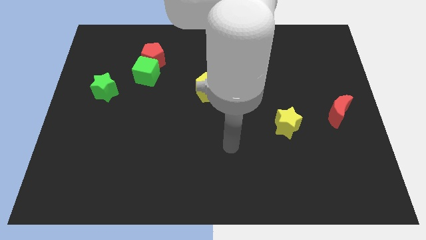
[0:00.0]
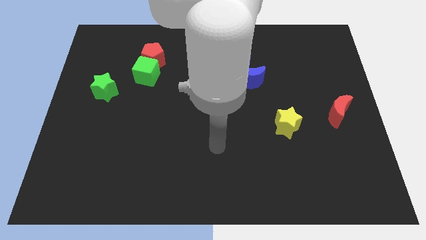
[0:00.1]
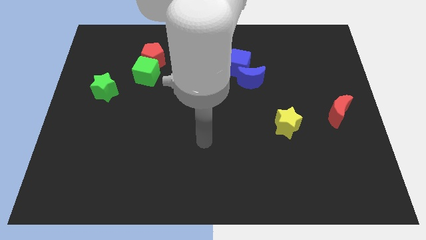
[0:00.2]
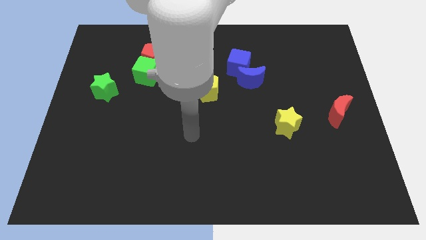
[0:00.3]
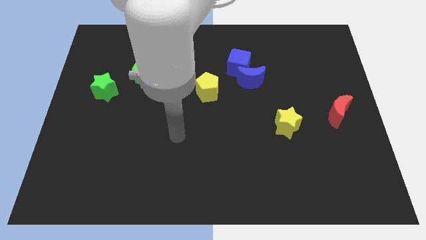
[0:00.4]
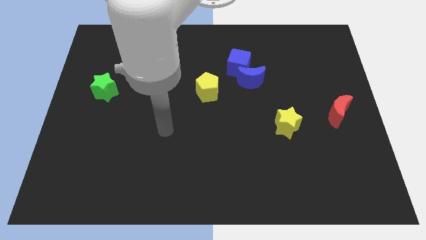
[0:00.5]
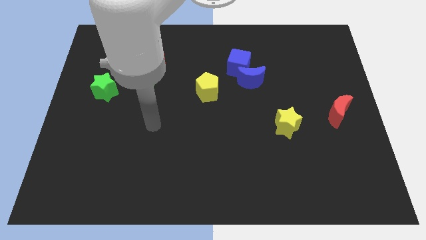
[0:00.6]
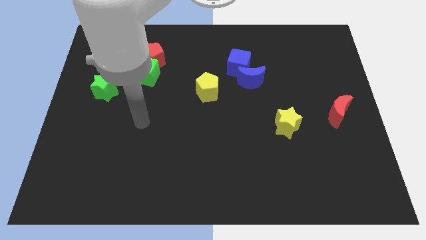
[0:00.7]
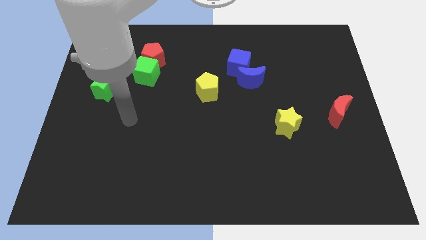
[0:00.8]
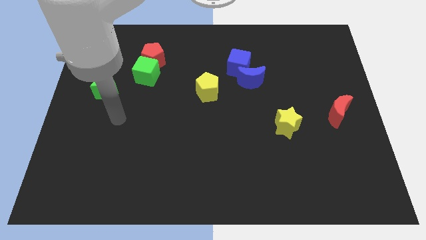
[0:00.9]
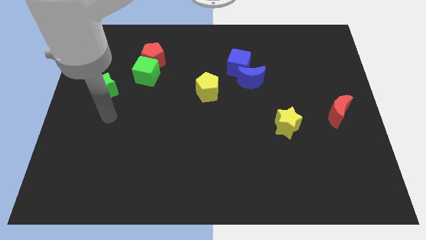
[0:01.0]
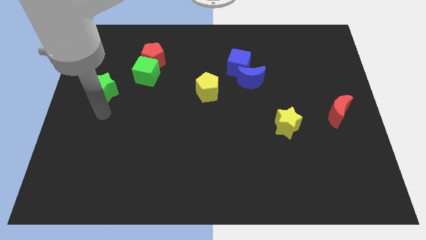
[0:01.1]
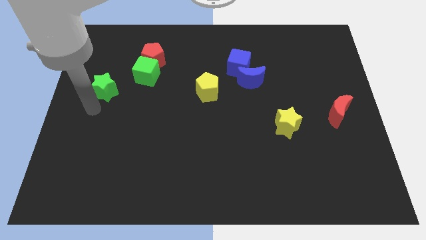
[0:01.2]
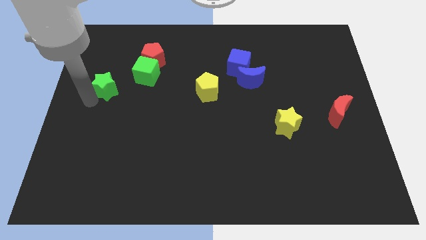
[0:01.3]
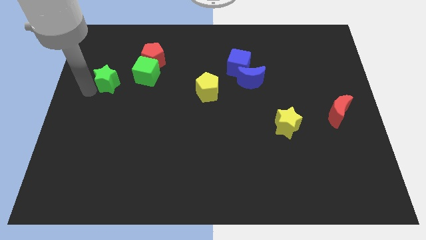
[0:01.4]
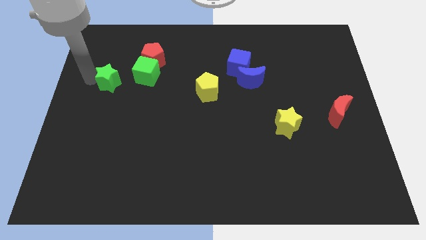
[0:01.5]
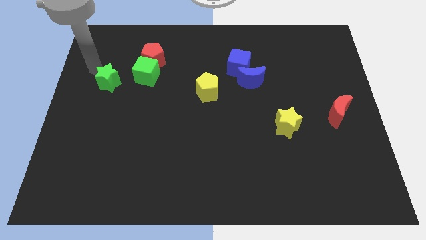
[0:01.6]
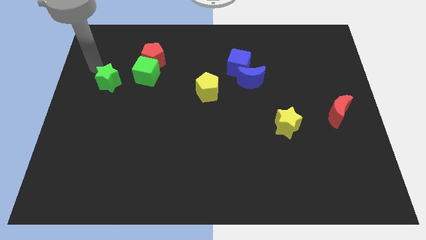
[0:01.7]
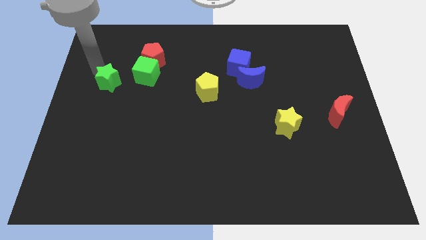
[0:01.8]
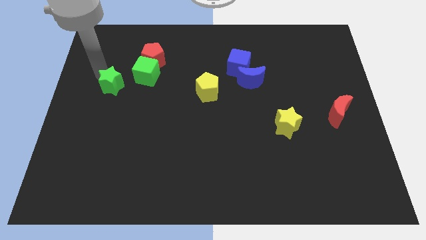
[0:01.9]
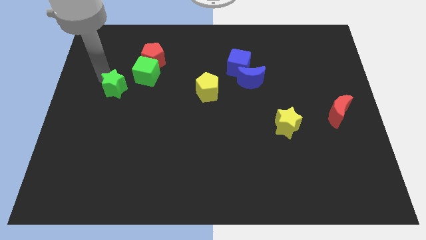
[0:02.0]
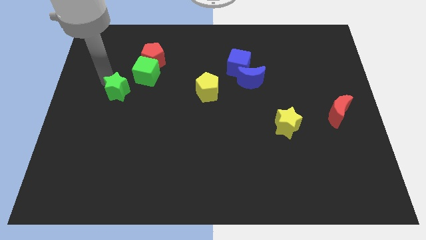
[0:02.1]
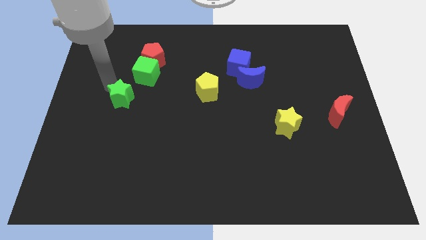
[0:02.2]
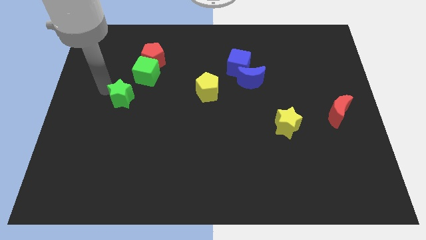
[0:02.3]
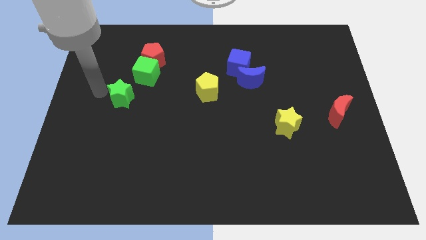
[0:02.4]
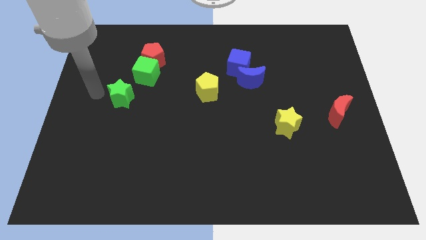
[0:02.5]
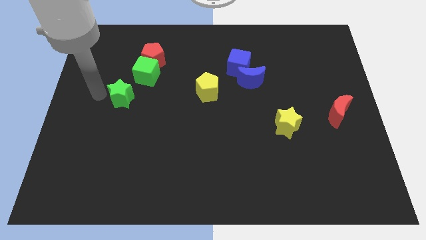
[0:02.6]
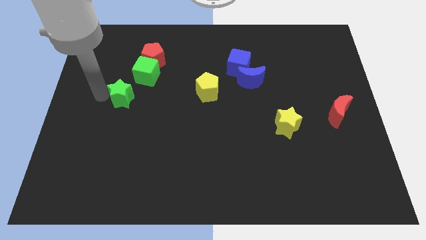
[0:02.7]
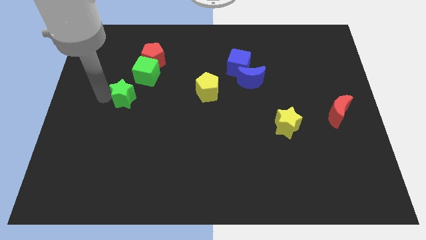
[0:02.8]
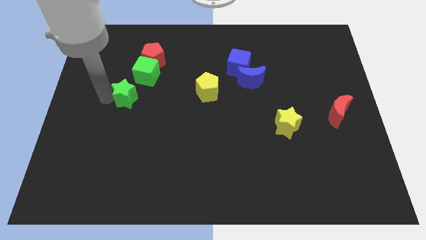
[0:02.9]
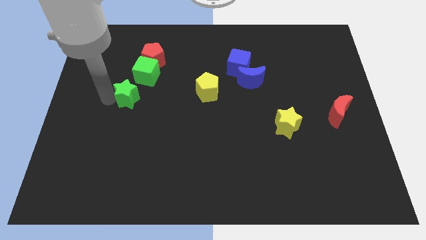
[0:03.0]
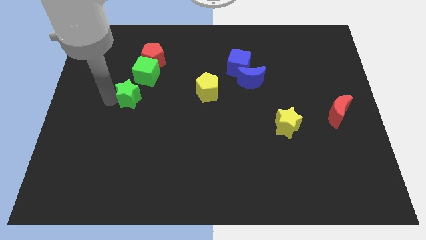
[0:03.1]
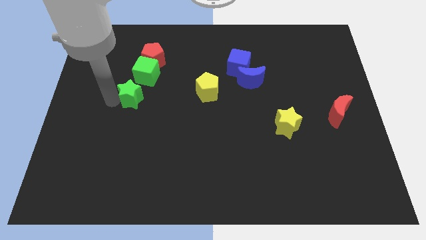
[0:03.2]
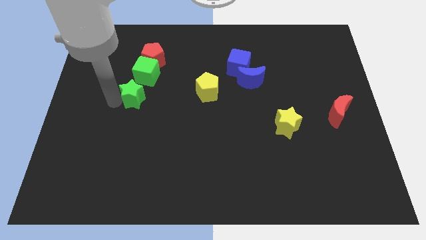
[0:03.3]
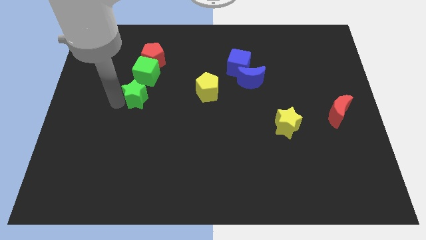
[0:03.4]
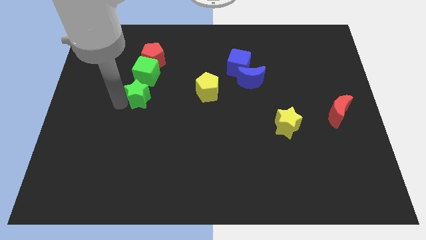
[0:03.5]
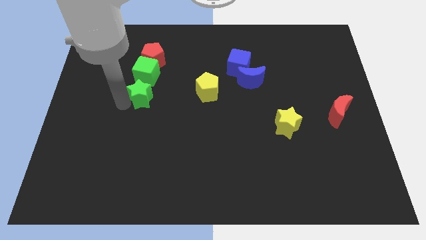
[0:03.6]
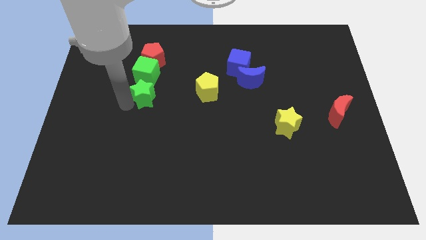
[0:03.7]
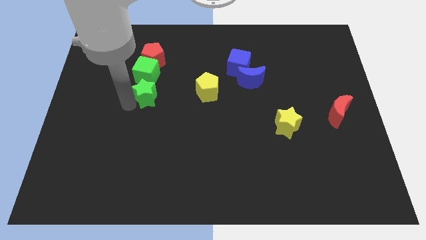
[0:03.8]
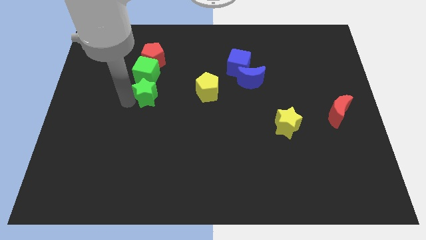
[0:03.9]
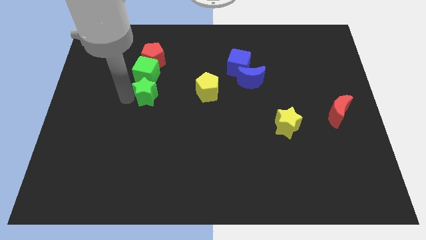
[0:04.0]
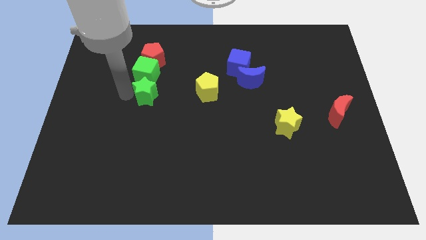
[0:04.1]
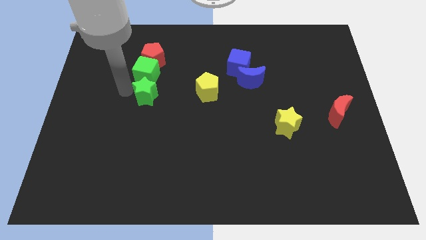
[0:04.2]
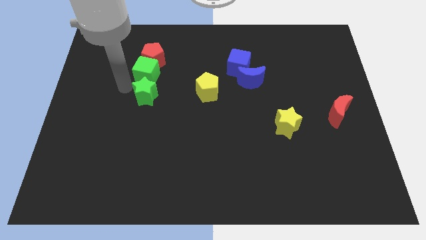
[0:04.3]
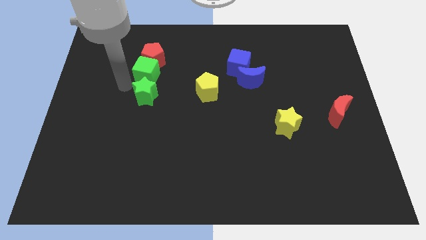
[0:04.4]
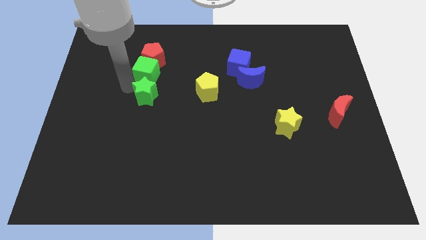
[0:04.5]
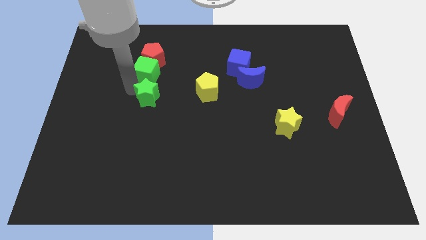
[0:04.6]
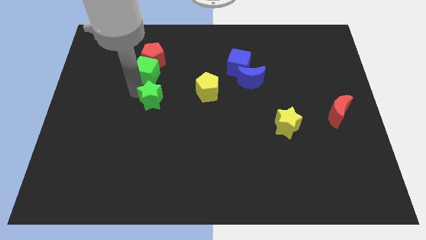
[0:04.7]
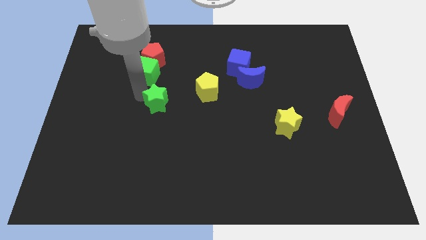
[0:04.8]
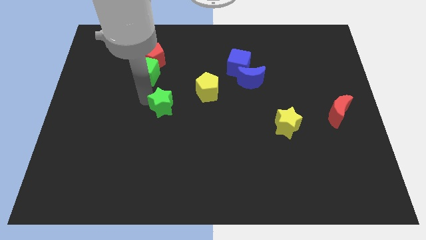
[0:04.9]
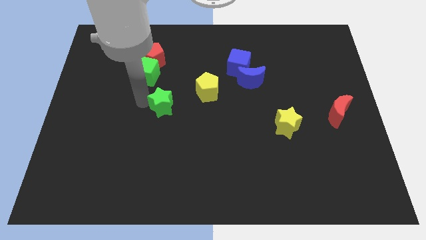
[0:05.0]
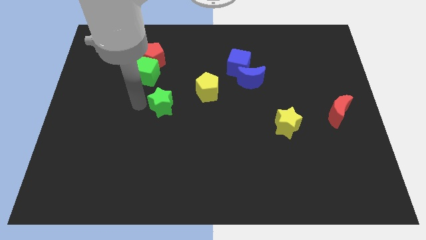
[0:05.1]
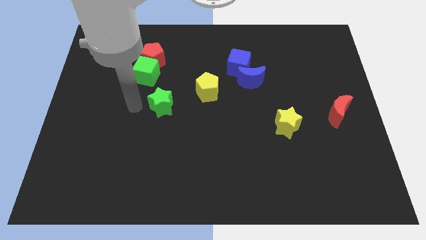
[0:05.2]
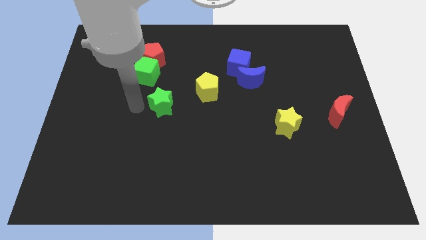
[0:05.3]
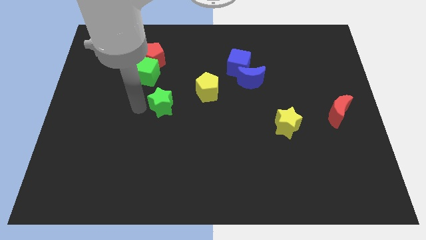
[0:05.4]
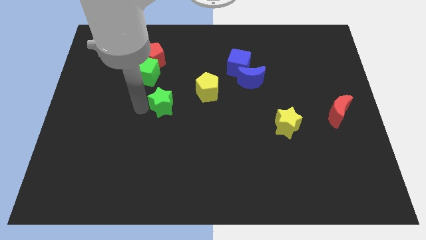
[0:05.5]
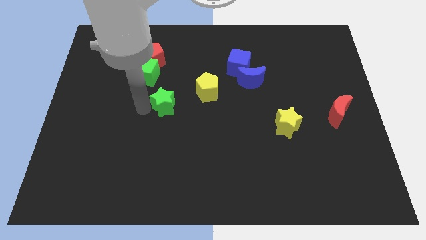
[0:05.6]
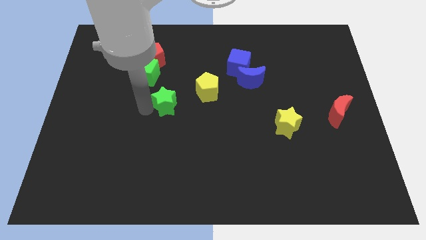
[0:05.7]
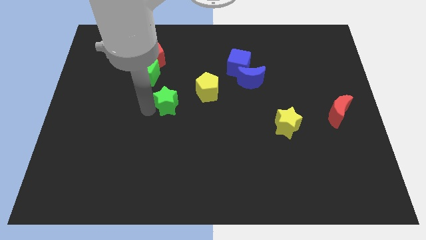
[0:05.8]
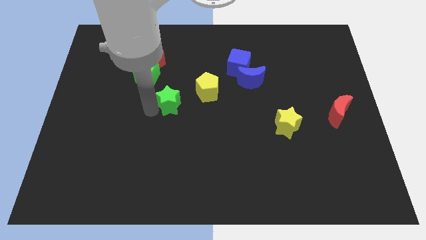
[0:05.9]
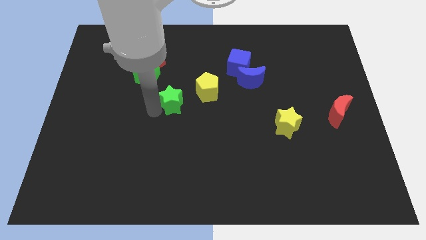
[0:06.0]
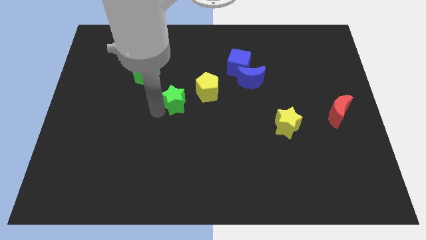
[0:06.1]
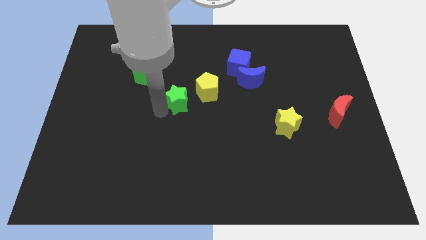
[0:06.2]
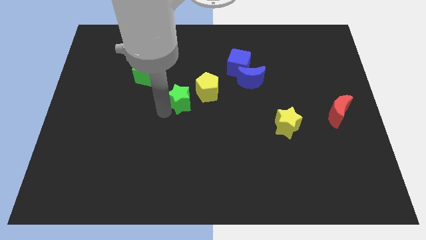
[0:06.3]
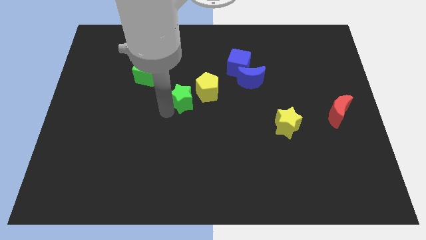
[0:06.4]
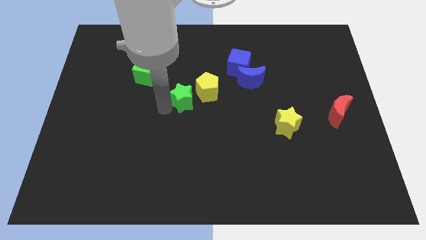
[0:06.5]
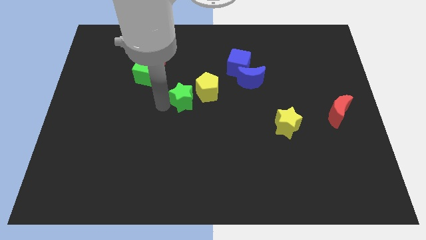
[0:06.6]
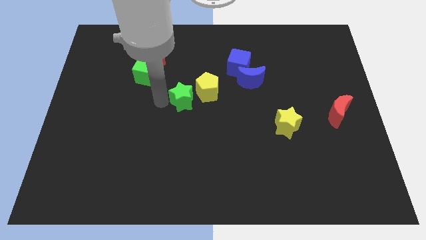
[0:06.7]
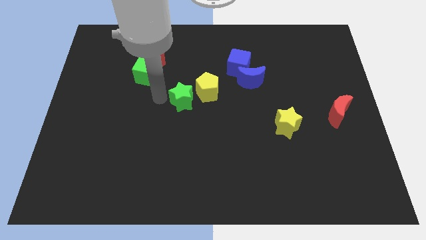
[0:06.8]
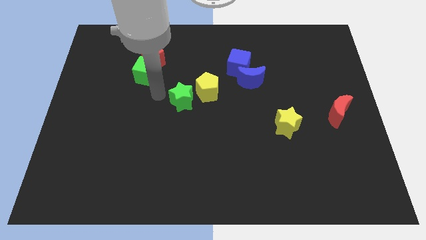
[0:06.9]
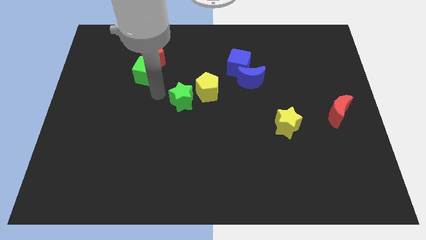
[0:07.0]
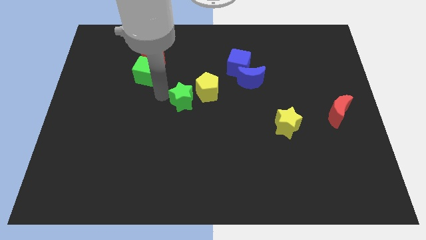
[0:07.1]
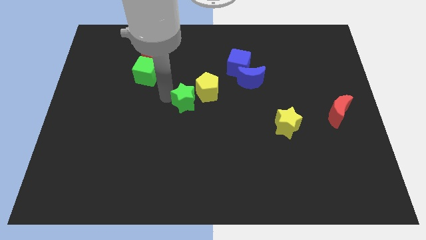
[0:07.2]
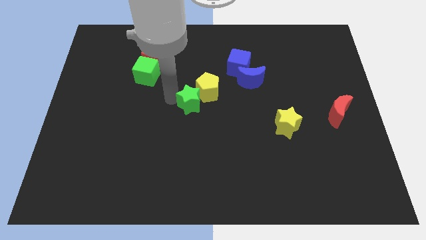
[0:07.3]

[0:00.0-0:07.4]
move the green star right

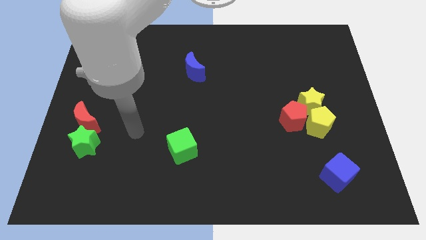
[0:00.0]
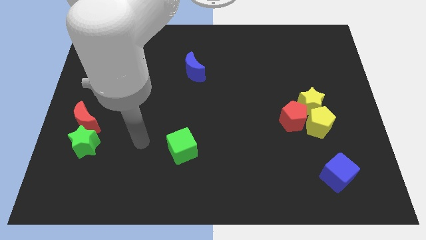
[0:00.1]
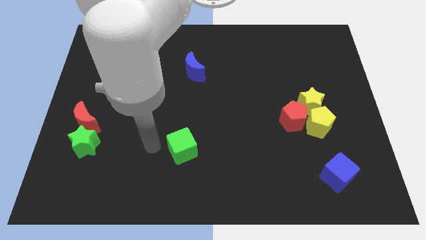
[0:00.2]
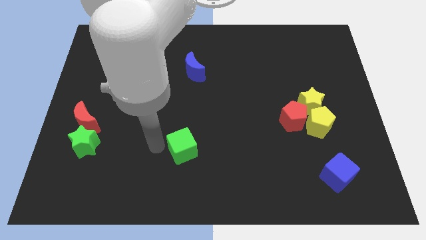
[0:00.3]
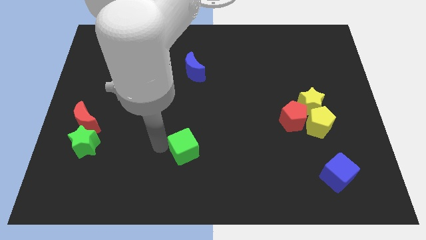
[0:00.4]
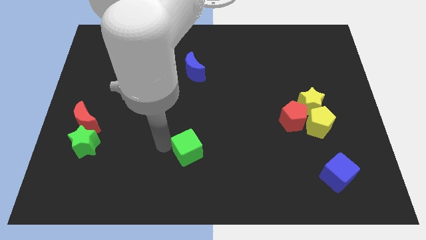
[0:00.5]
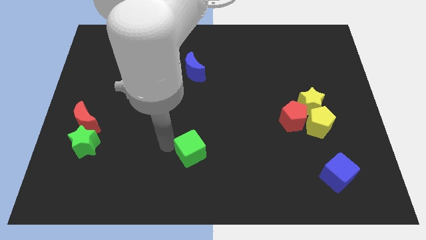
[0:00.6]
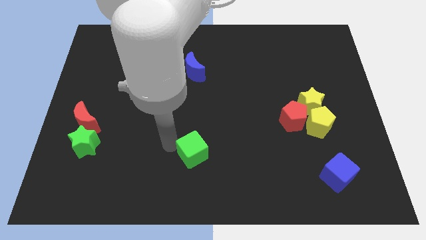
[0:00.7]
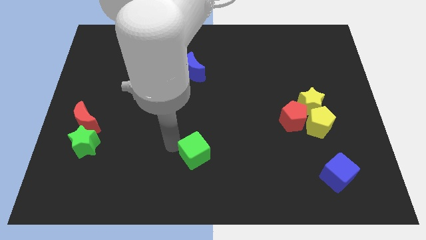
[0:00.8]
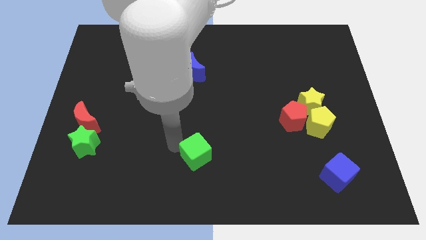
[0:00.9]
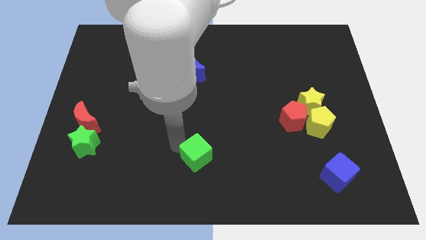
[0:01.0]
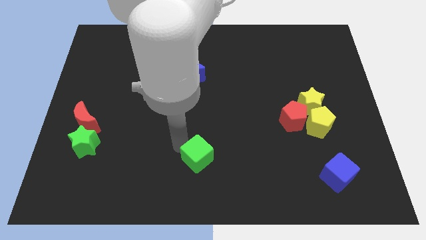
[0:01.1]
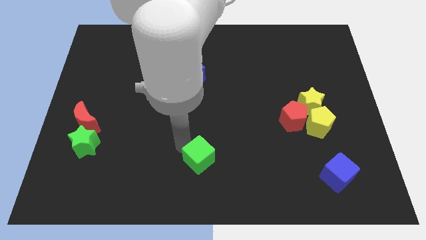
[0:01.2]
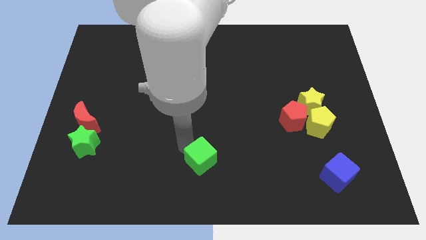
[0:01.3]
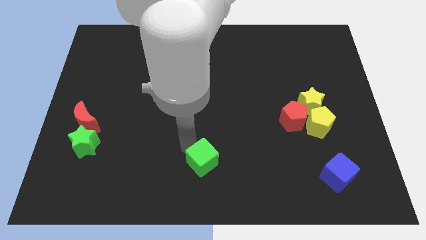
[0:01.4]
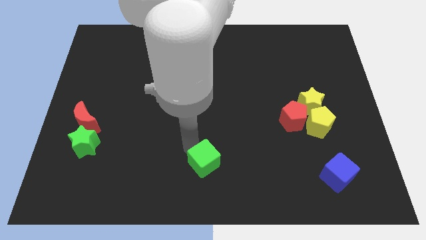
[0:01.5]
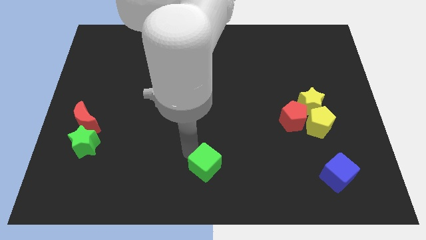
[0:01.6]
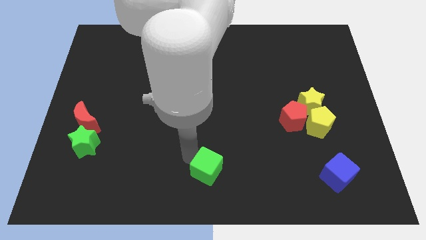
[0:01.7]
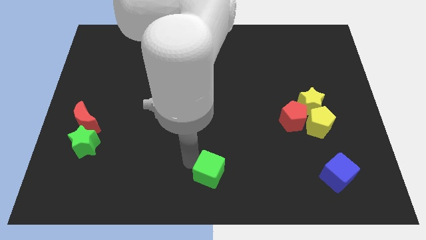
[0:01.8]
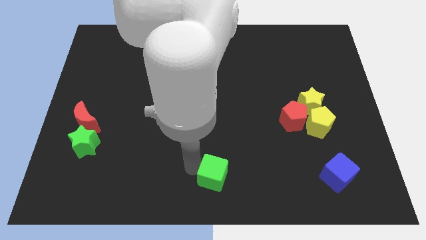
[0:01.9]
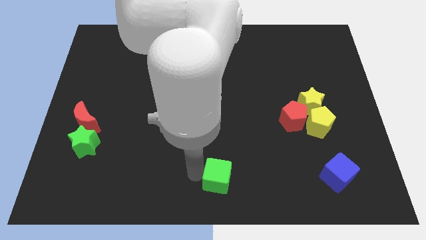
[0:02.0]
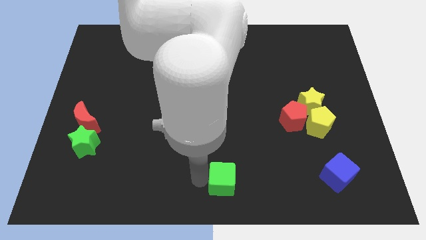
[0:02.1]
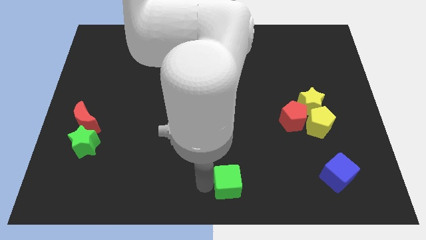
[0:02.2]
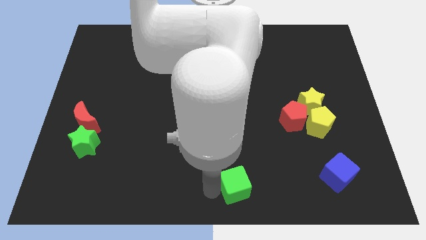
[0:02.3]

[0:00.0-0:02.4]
slightly push the green cube right
